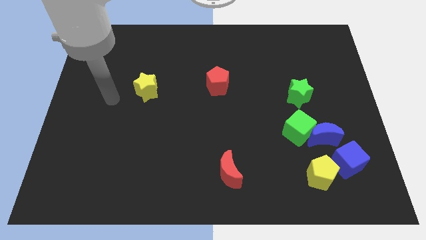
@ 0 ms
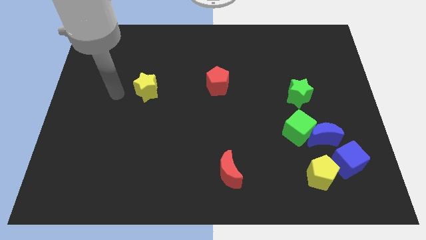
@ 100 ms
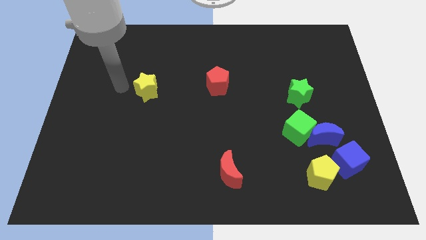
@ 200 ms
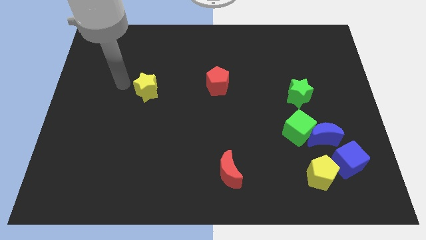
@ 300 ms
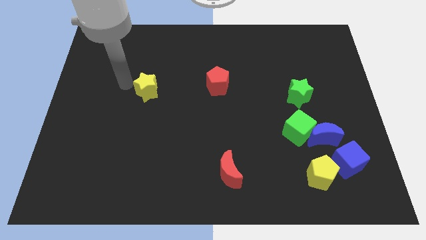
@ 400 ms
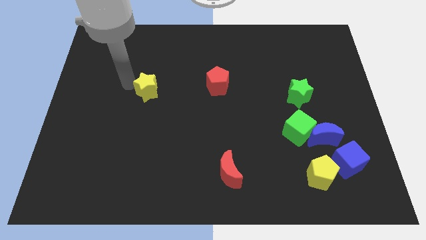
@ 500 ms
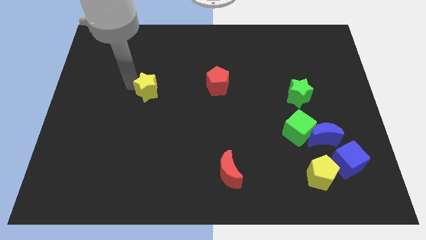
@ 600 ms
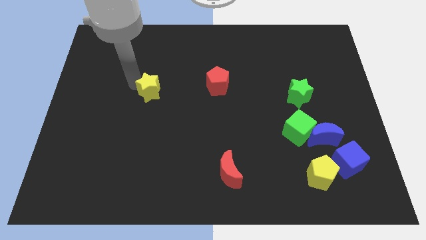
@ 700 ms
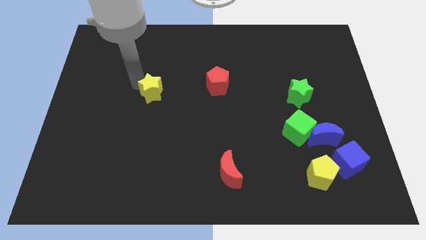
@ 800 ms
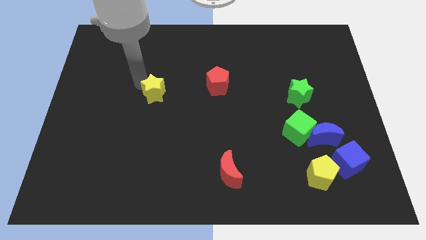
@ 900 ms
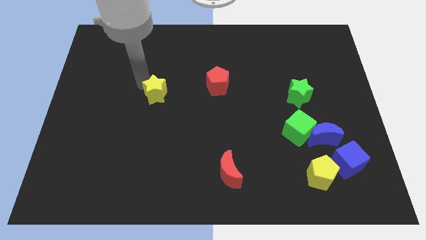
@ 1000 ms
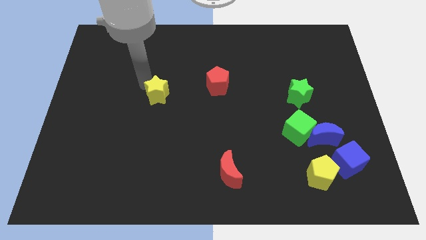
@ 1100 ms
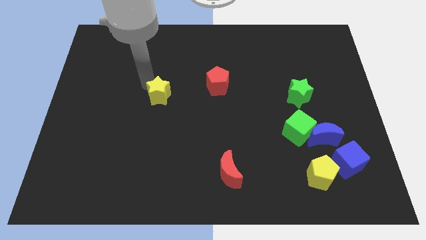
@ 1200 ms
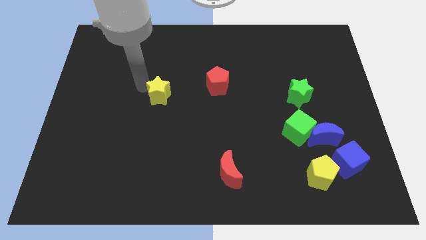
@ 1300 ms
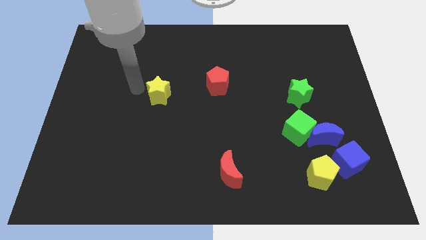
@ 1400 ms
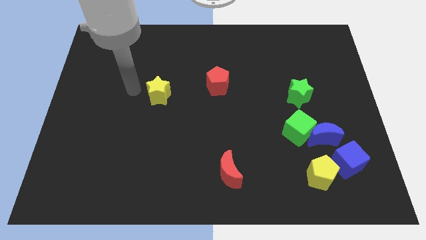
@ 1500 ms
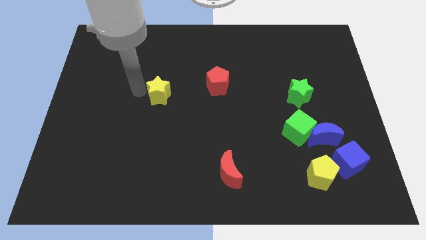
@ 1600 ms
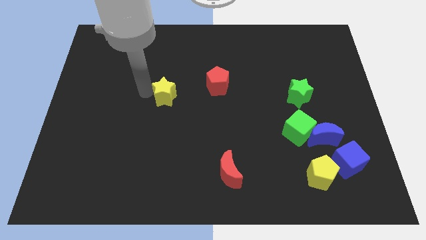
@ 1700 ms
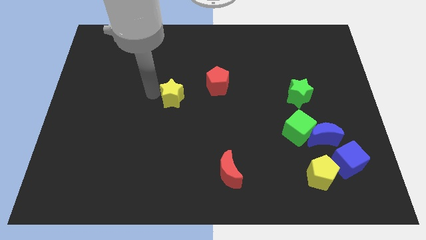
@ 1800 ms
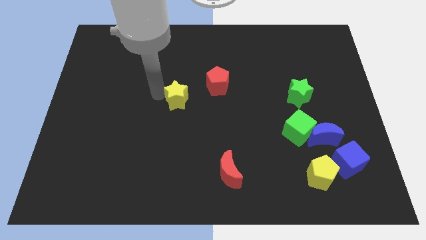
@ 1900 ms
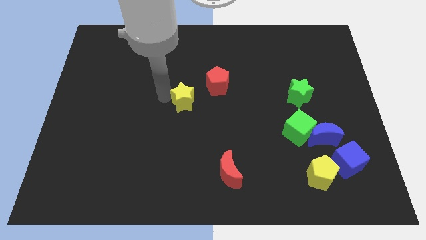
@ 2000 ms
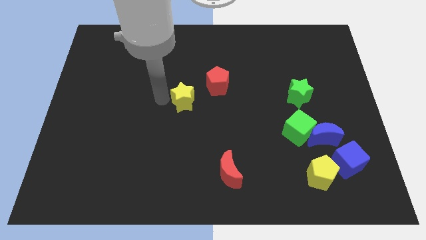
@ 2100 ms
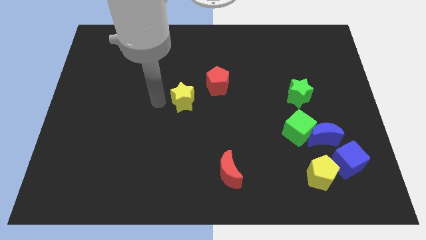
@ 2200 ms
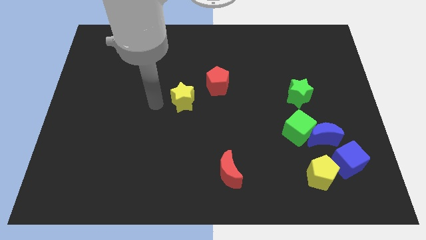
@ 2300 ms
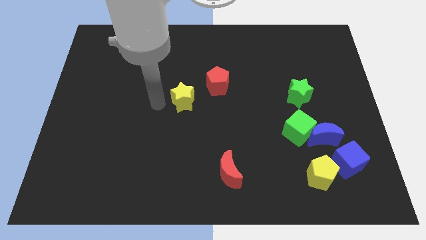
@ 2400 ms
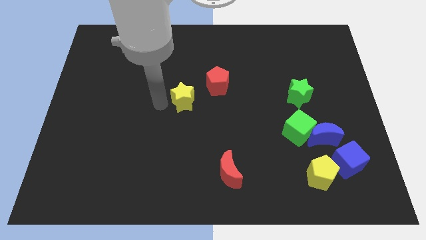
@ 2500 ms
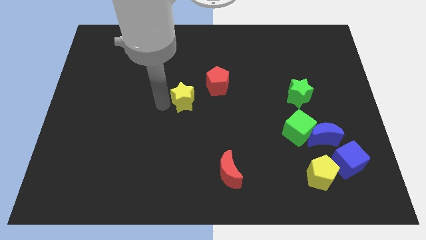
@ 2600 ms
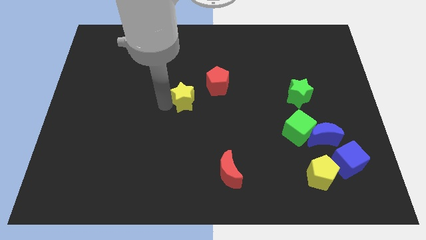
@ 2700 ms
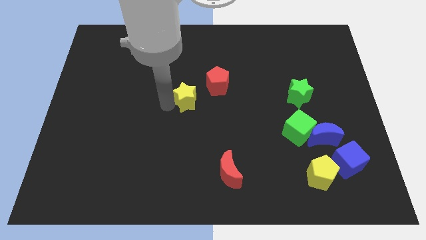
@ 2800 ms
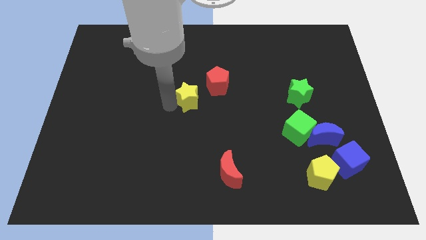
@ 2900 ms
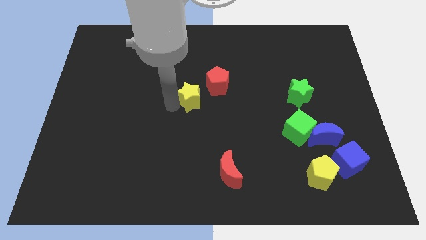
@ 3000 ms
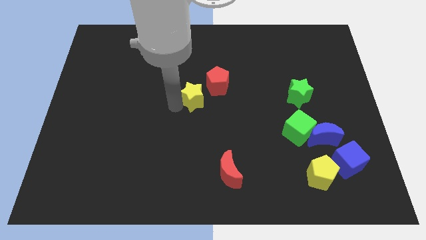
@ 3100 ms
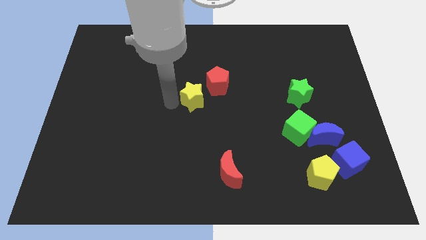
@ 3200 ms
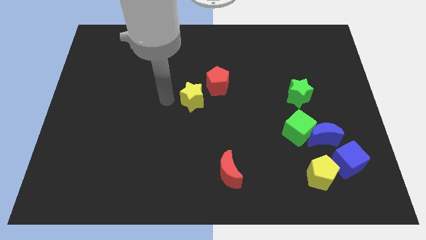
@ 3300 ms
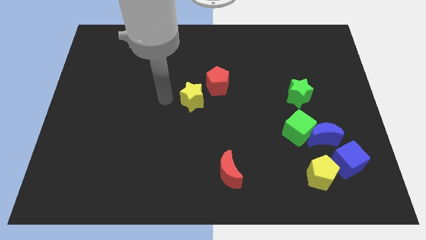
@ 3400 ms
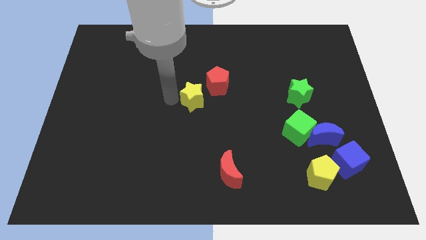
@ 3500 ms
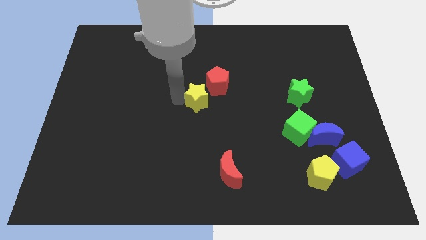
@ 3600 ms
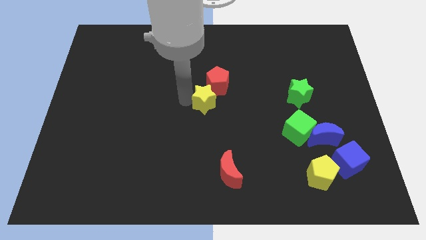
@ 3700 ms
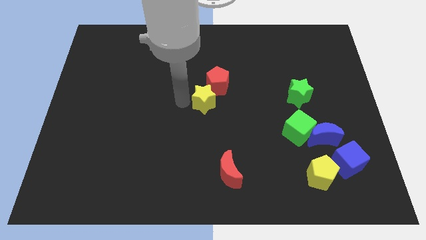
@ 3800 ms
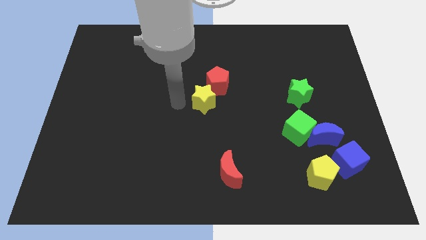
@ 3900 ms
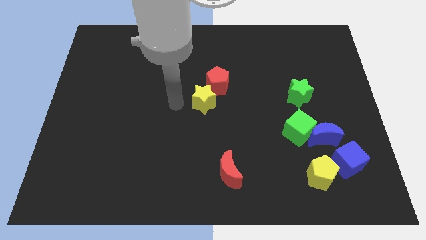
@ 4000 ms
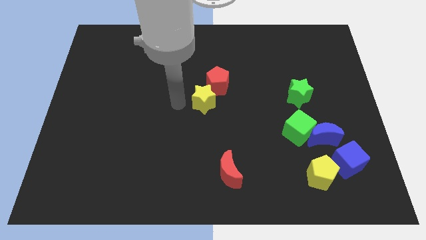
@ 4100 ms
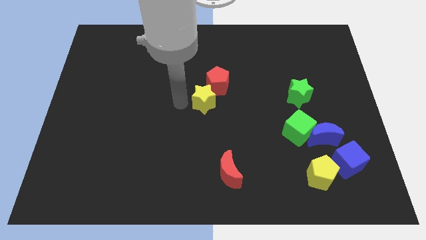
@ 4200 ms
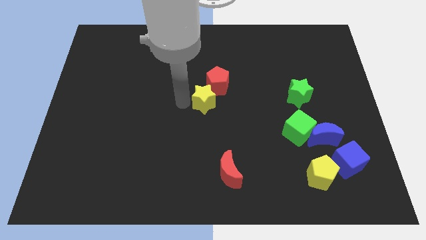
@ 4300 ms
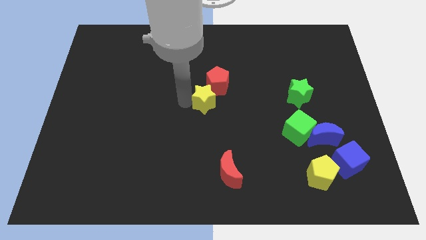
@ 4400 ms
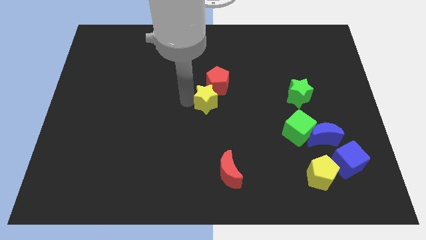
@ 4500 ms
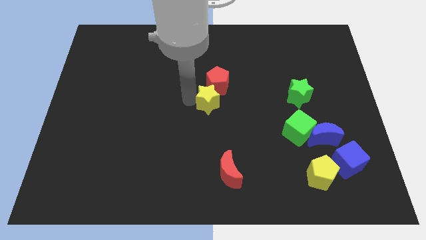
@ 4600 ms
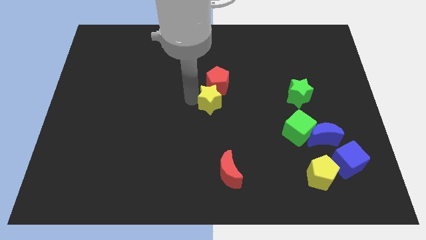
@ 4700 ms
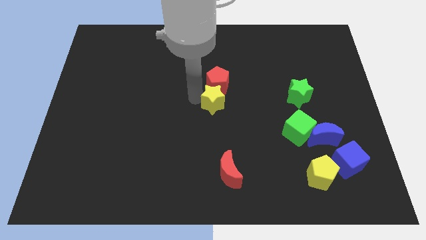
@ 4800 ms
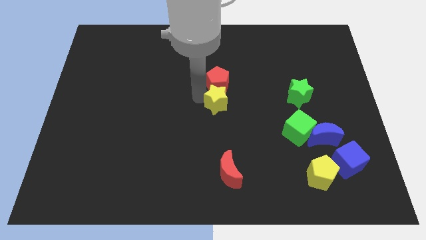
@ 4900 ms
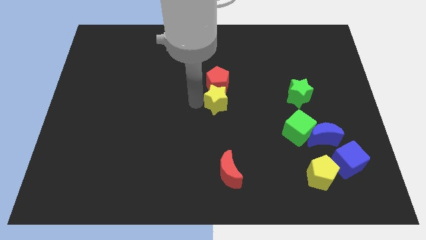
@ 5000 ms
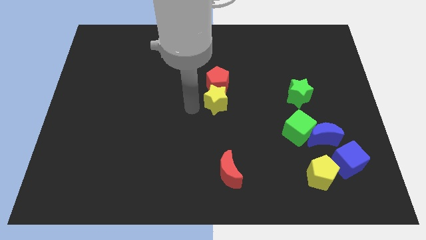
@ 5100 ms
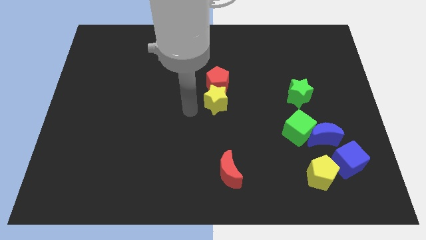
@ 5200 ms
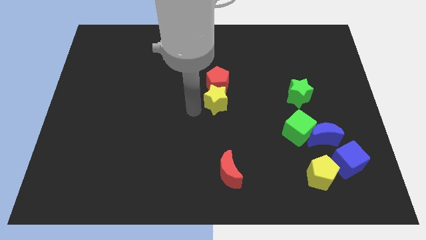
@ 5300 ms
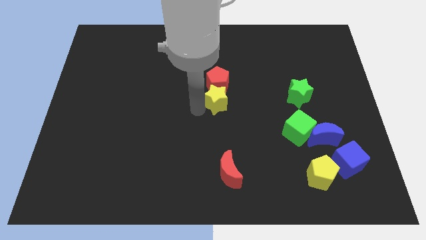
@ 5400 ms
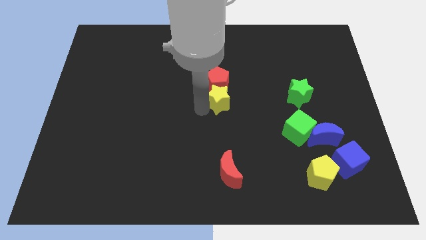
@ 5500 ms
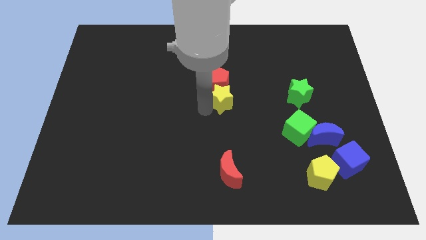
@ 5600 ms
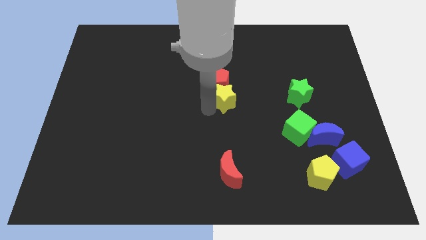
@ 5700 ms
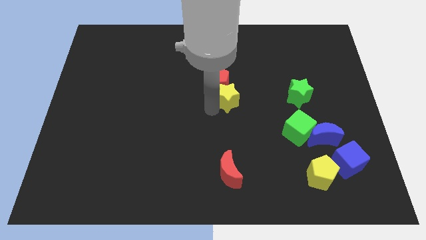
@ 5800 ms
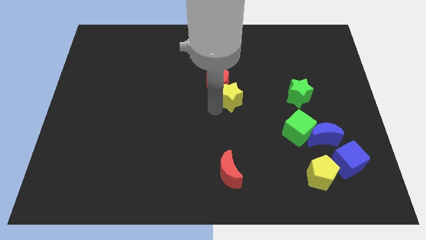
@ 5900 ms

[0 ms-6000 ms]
push the yellow star to the right

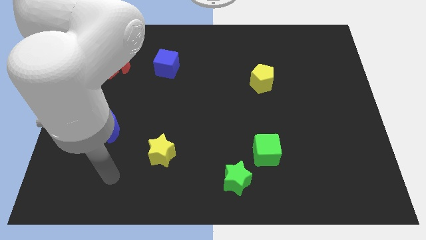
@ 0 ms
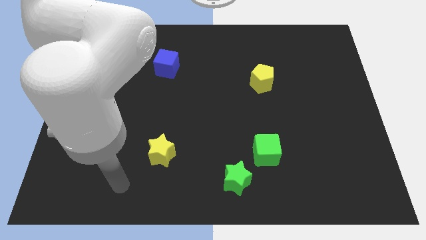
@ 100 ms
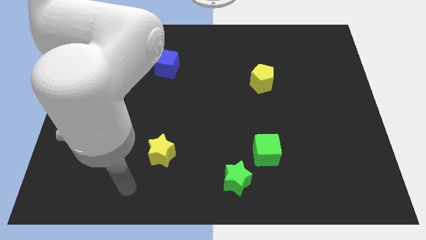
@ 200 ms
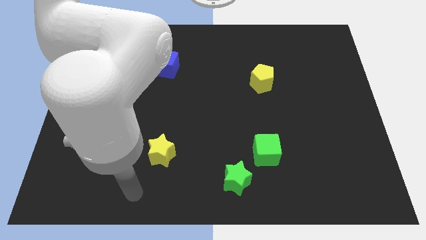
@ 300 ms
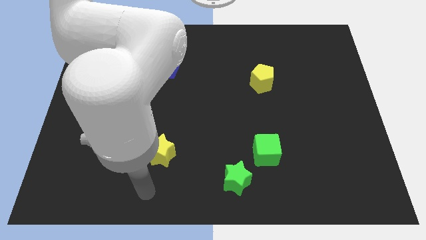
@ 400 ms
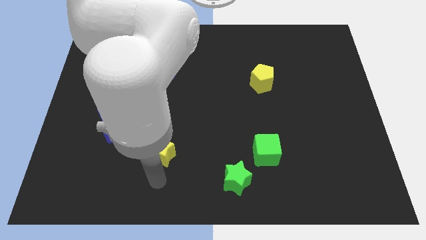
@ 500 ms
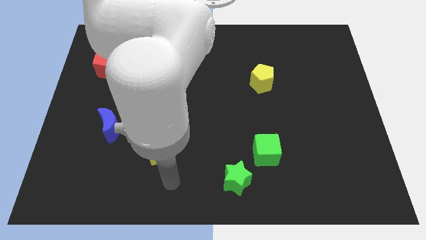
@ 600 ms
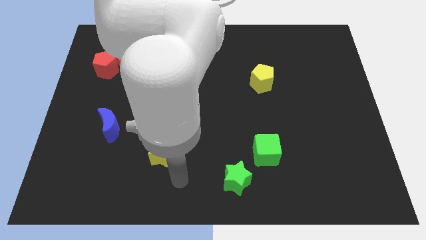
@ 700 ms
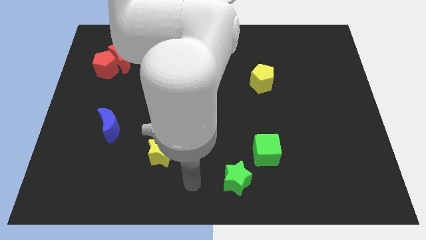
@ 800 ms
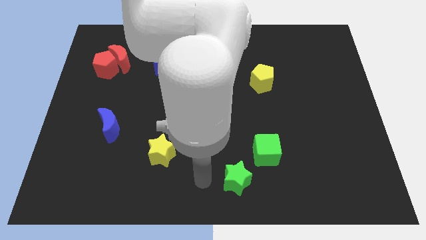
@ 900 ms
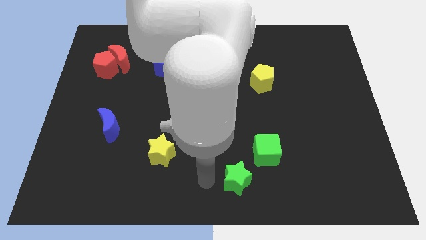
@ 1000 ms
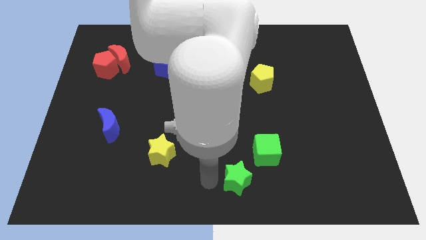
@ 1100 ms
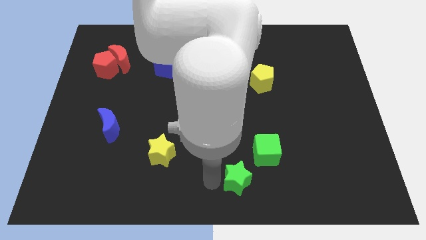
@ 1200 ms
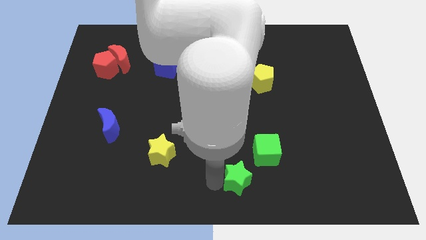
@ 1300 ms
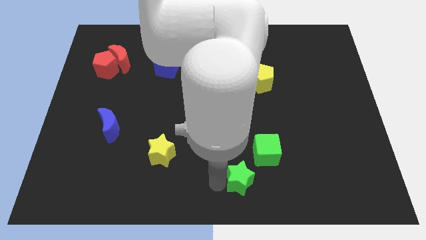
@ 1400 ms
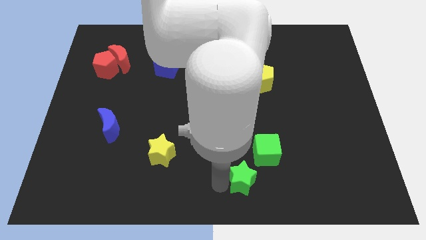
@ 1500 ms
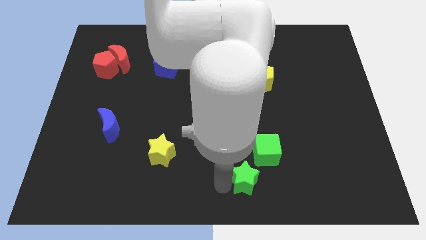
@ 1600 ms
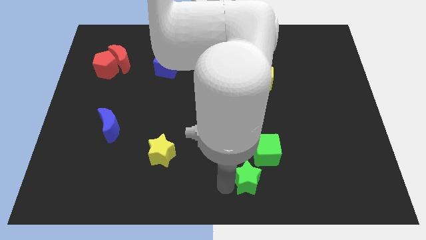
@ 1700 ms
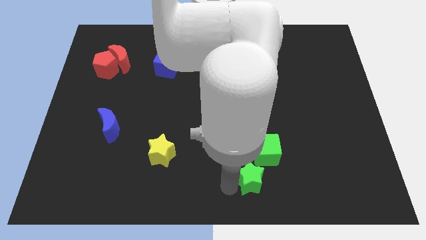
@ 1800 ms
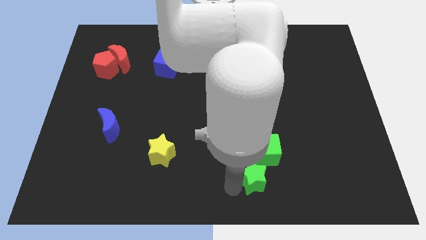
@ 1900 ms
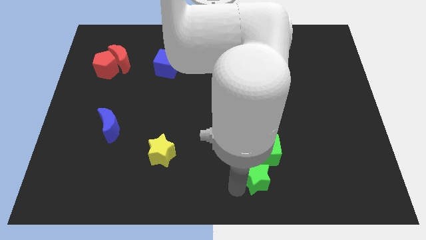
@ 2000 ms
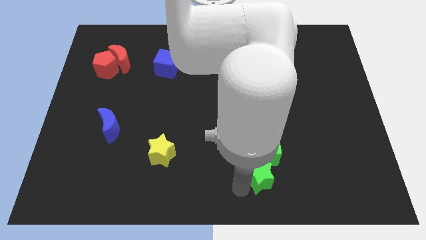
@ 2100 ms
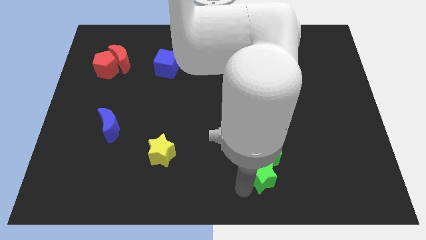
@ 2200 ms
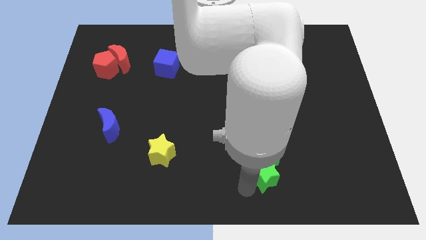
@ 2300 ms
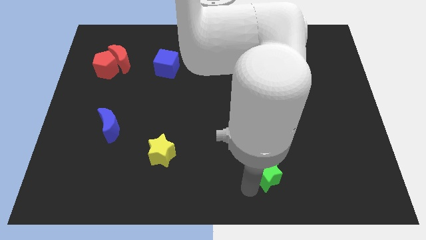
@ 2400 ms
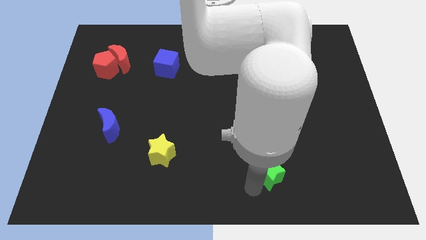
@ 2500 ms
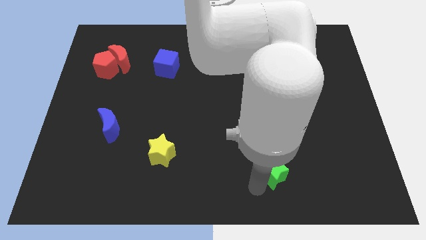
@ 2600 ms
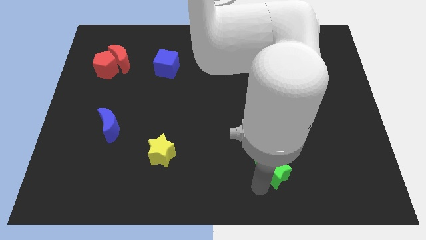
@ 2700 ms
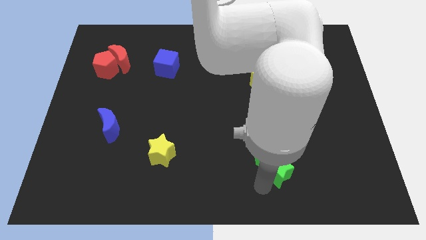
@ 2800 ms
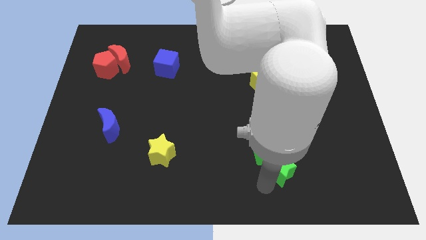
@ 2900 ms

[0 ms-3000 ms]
push the green star a little bit up and to the right
